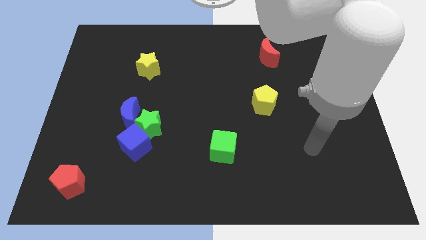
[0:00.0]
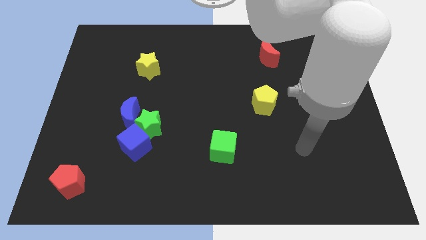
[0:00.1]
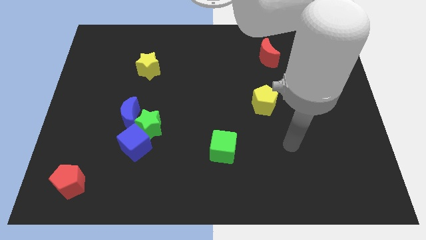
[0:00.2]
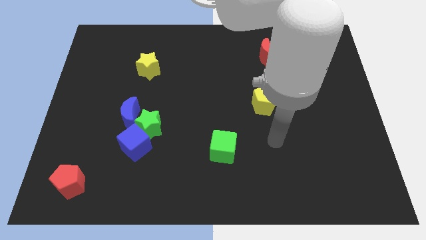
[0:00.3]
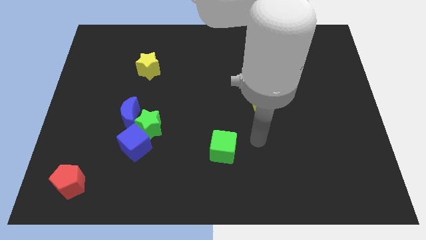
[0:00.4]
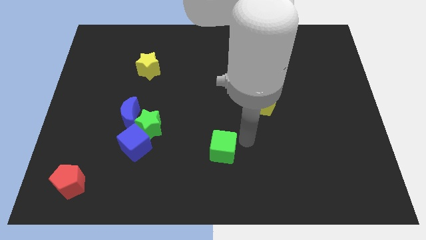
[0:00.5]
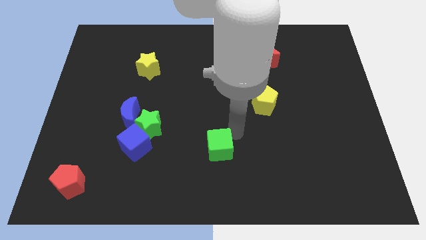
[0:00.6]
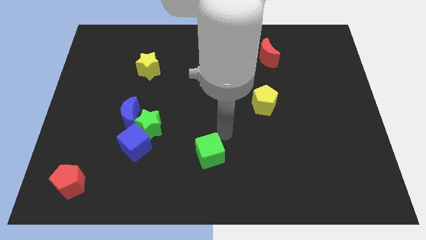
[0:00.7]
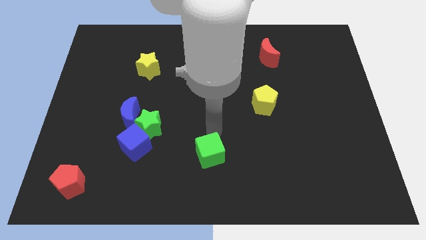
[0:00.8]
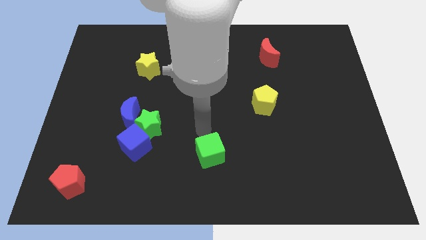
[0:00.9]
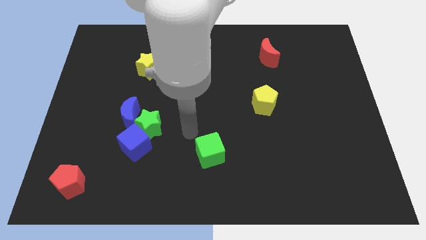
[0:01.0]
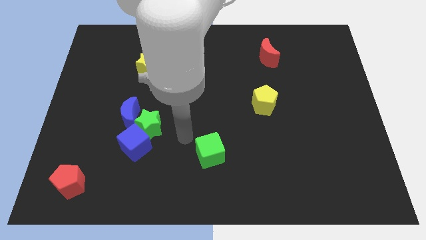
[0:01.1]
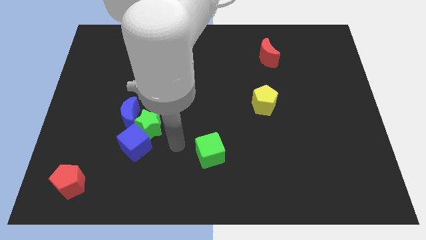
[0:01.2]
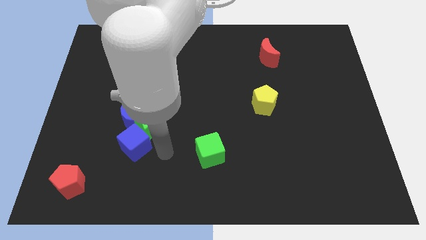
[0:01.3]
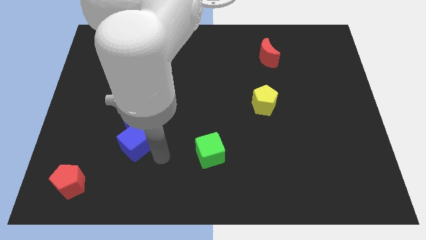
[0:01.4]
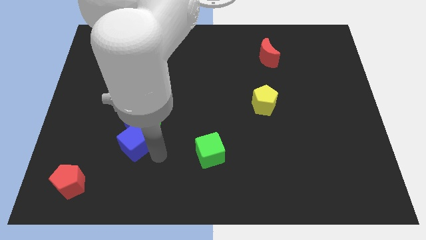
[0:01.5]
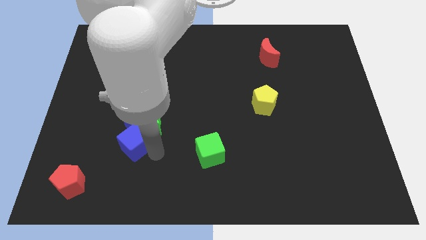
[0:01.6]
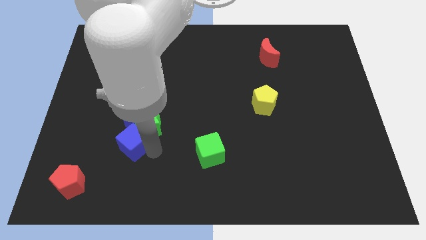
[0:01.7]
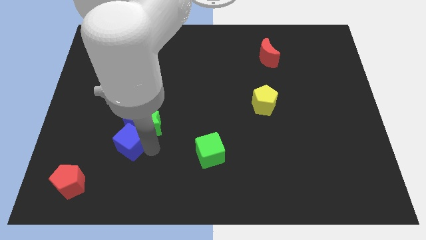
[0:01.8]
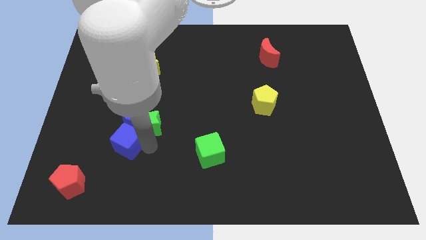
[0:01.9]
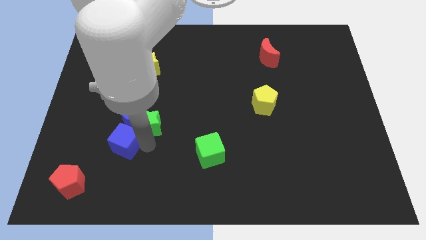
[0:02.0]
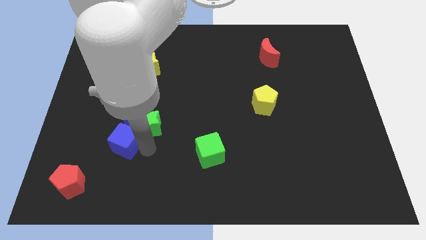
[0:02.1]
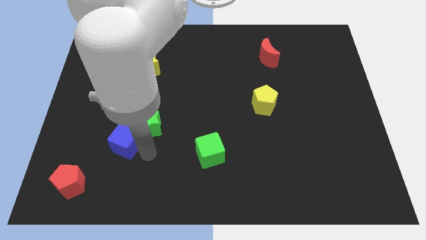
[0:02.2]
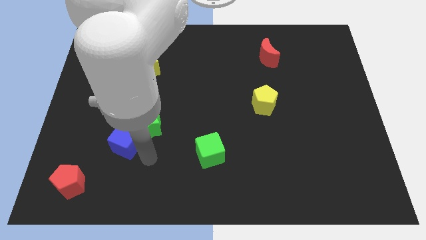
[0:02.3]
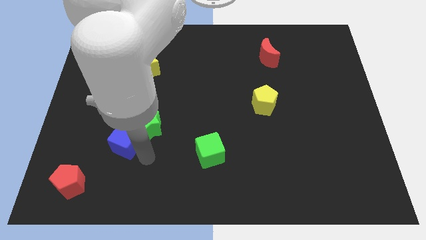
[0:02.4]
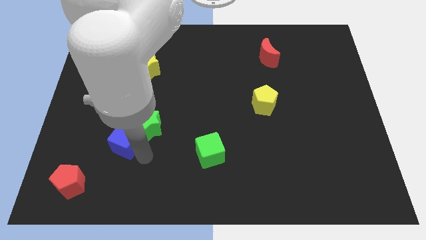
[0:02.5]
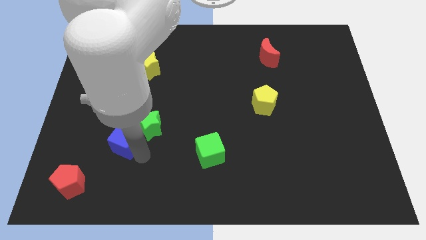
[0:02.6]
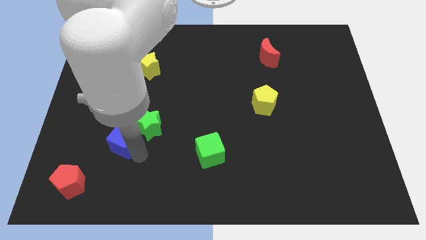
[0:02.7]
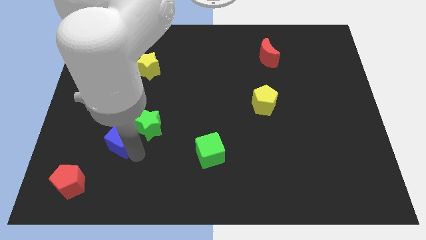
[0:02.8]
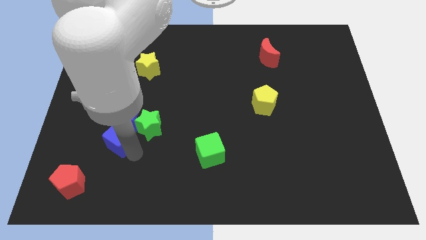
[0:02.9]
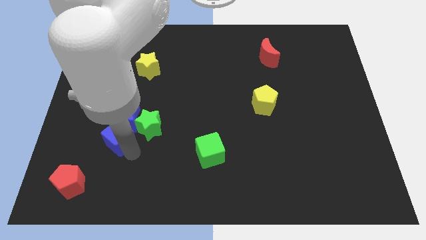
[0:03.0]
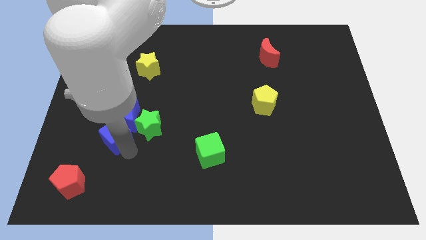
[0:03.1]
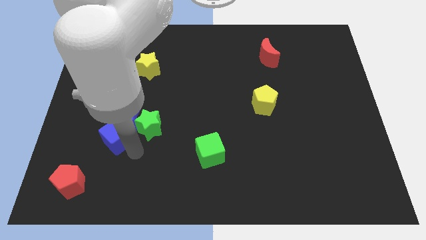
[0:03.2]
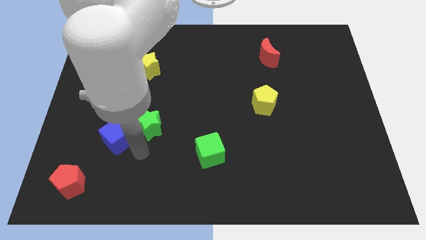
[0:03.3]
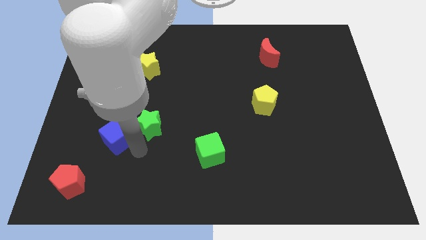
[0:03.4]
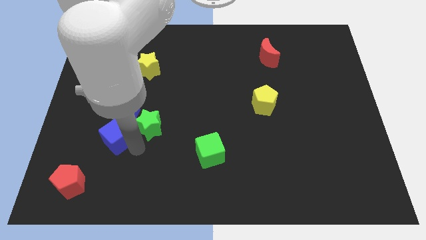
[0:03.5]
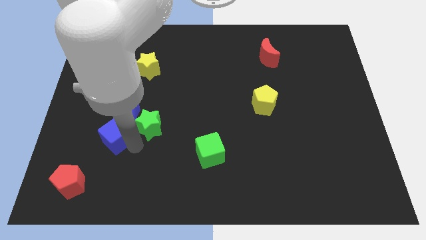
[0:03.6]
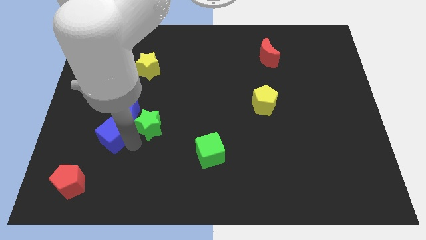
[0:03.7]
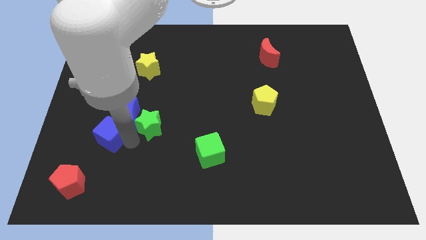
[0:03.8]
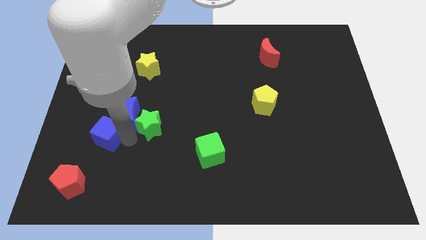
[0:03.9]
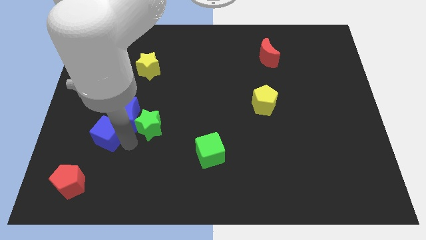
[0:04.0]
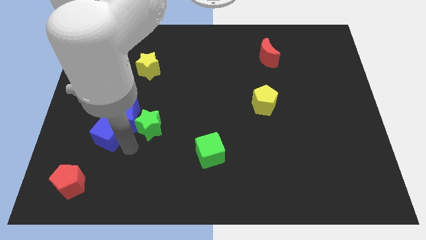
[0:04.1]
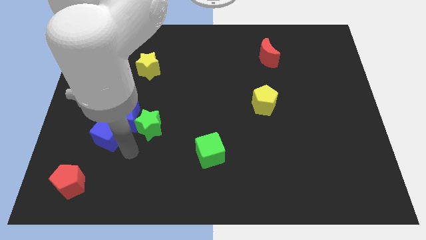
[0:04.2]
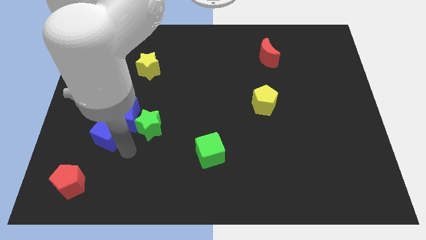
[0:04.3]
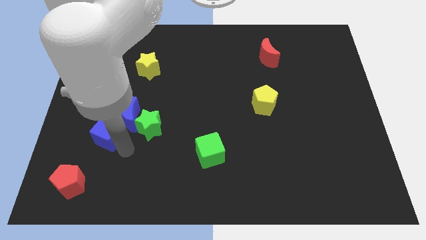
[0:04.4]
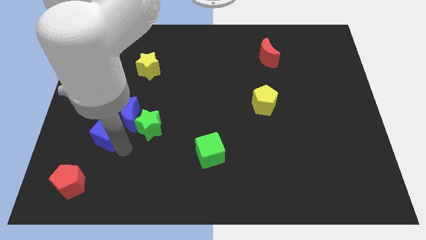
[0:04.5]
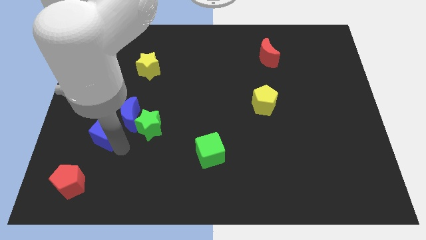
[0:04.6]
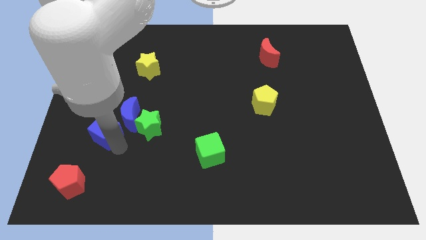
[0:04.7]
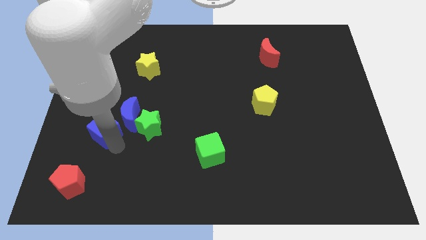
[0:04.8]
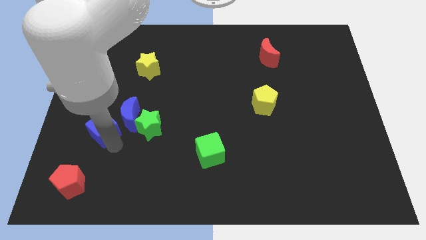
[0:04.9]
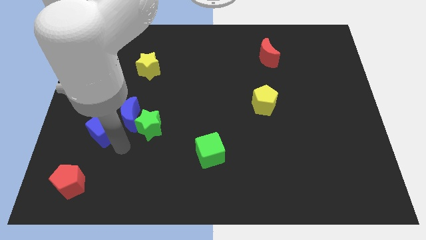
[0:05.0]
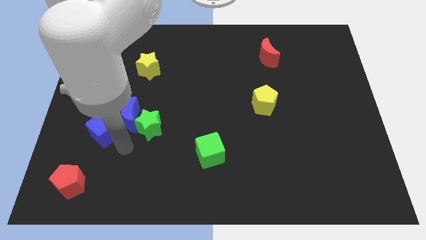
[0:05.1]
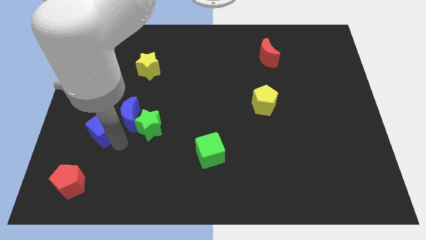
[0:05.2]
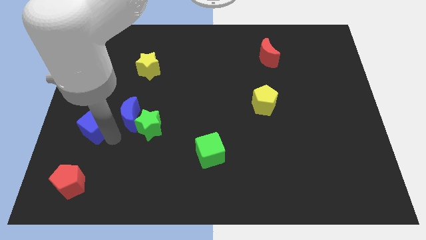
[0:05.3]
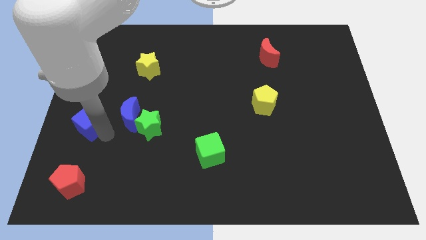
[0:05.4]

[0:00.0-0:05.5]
put the blue cube to the left side

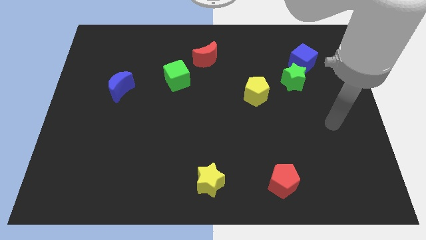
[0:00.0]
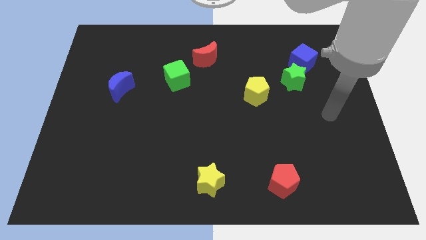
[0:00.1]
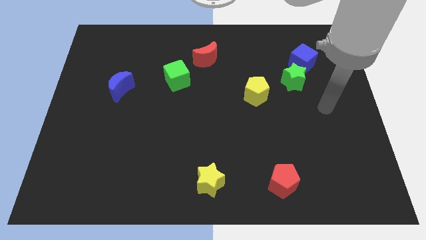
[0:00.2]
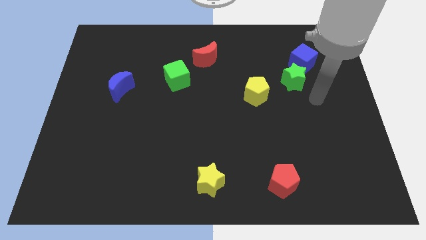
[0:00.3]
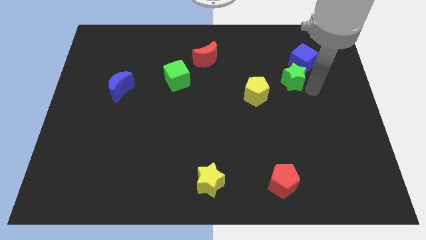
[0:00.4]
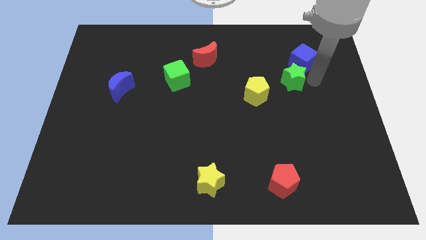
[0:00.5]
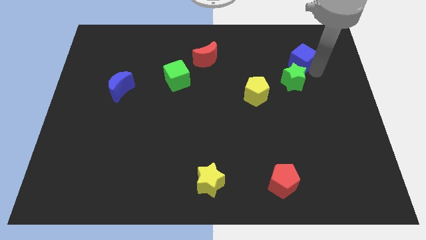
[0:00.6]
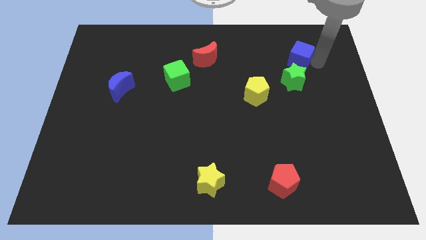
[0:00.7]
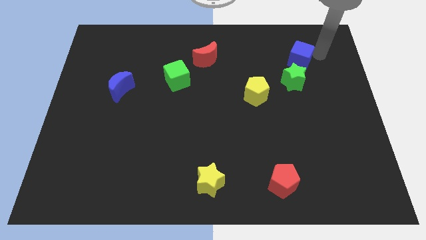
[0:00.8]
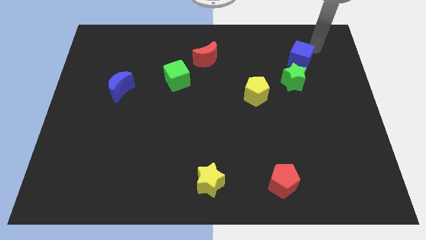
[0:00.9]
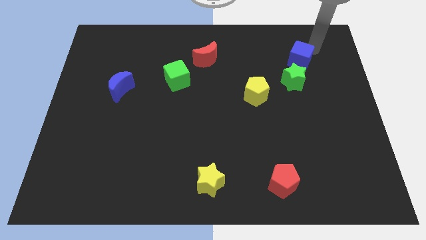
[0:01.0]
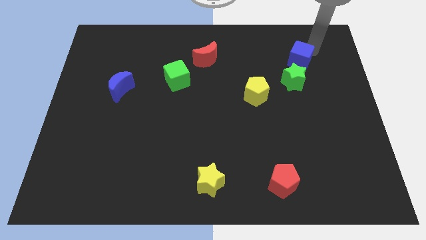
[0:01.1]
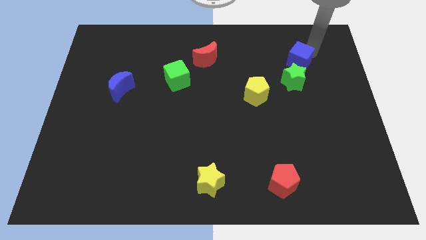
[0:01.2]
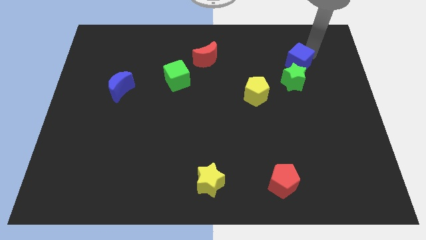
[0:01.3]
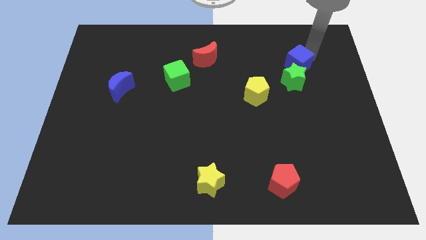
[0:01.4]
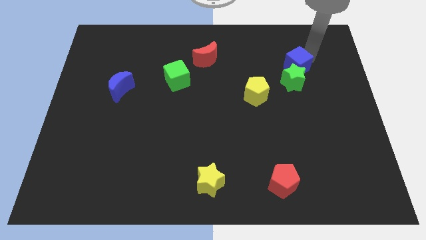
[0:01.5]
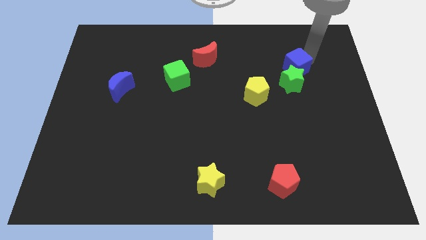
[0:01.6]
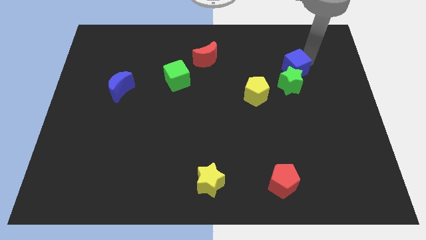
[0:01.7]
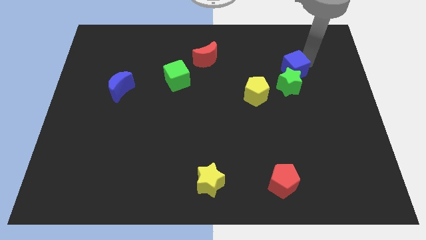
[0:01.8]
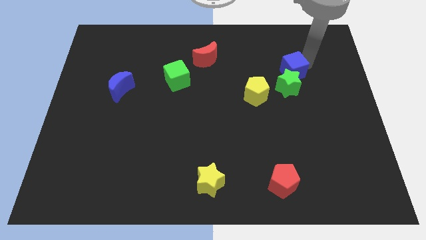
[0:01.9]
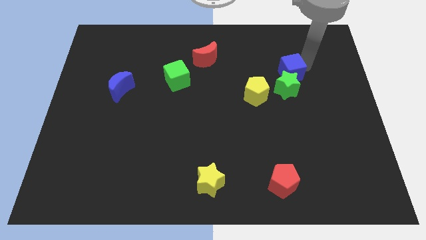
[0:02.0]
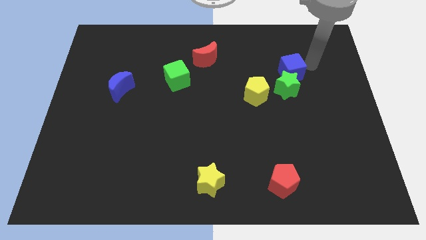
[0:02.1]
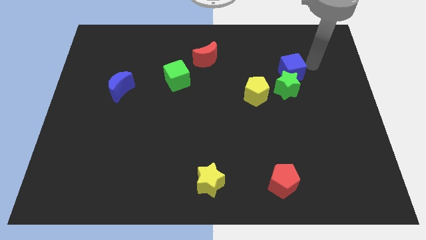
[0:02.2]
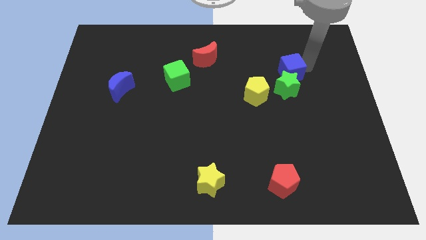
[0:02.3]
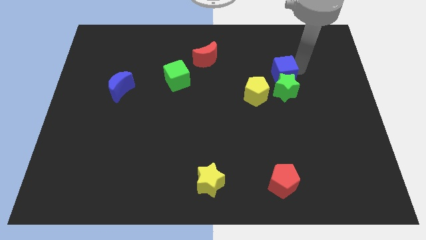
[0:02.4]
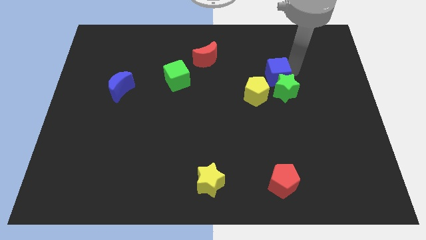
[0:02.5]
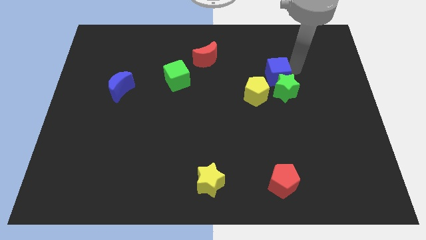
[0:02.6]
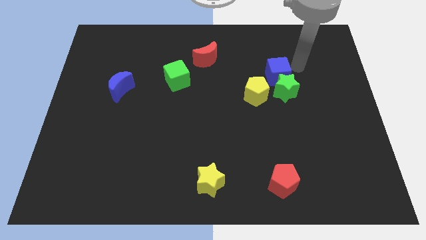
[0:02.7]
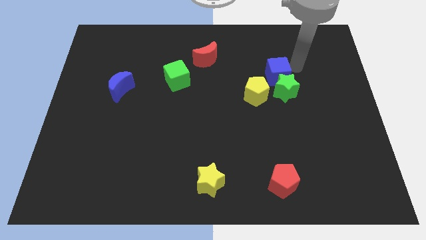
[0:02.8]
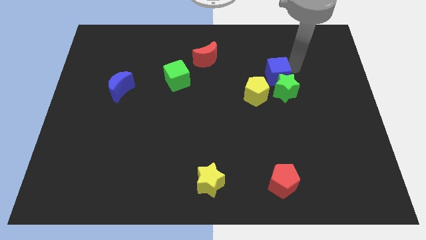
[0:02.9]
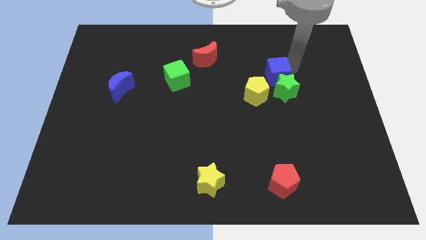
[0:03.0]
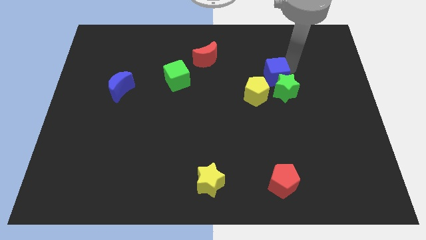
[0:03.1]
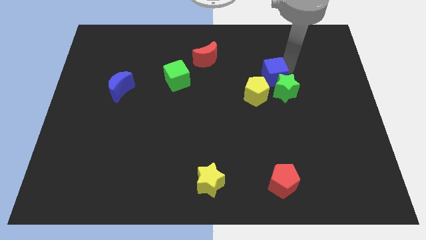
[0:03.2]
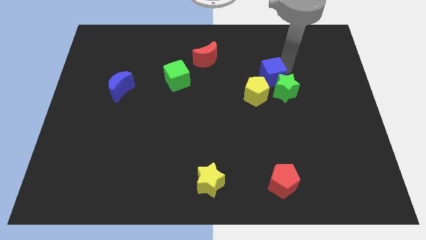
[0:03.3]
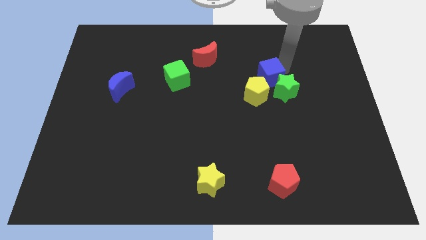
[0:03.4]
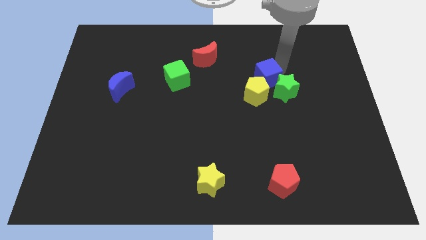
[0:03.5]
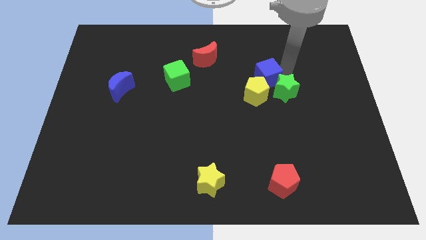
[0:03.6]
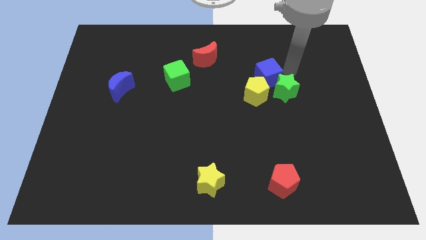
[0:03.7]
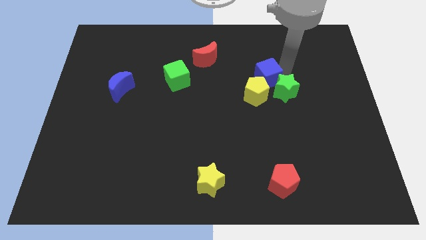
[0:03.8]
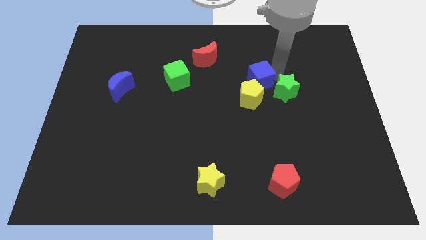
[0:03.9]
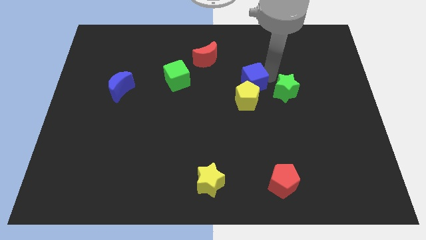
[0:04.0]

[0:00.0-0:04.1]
push the blue cube to the middle of the board
